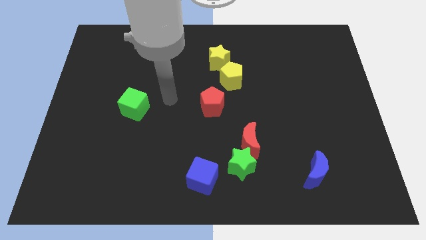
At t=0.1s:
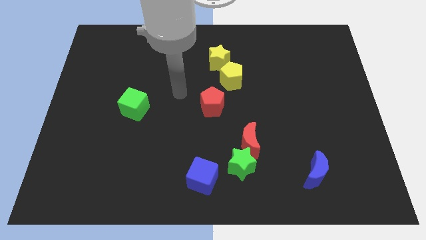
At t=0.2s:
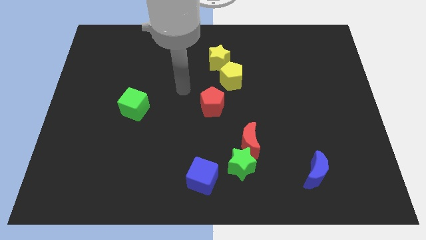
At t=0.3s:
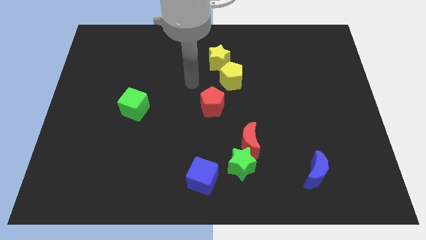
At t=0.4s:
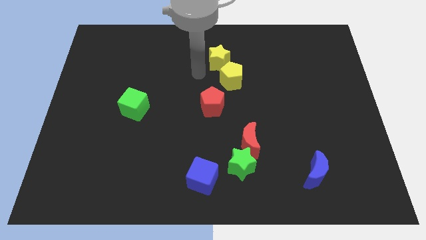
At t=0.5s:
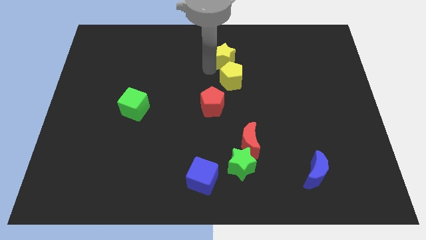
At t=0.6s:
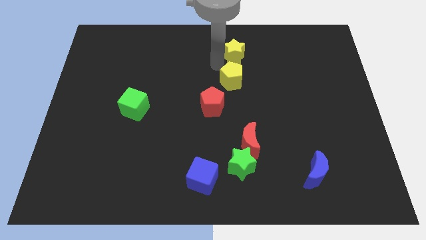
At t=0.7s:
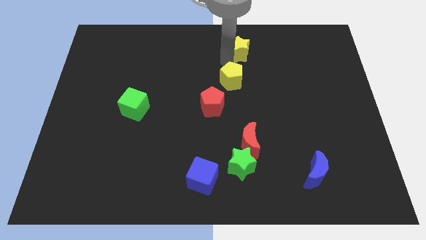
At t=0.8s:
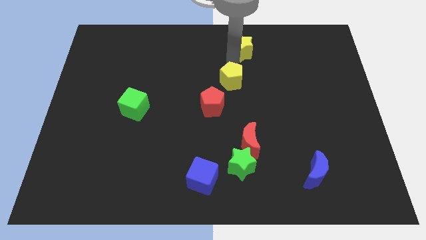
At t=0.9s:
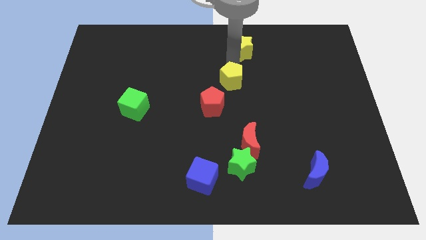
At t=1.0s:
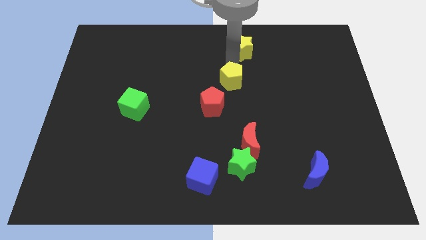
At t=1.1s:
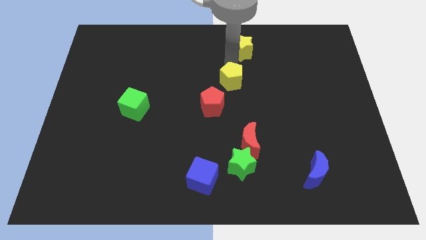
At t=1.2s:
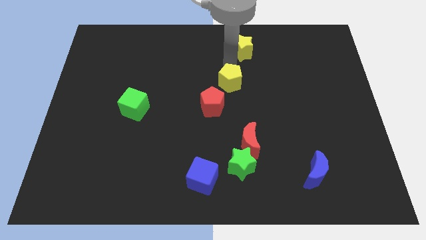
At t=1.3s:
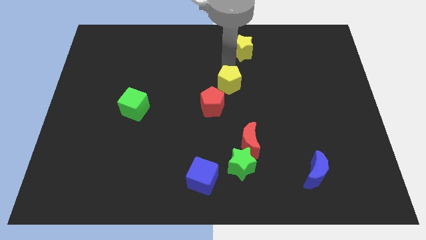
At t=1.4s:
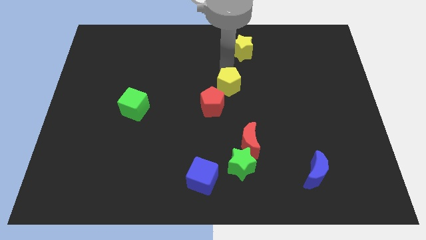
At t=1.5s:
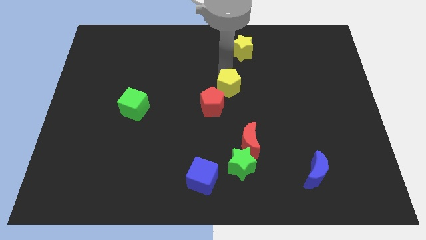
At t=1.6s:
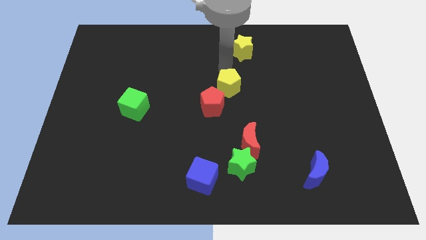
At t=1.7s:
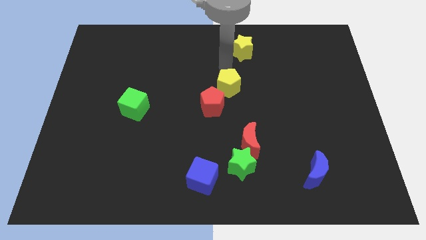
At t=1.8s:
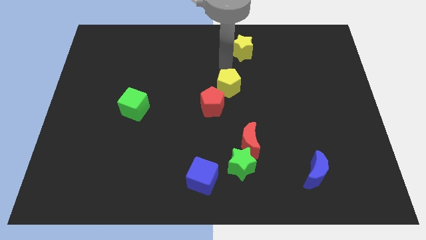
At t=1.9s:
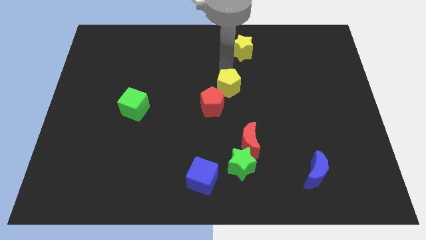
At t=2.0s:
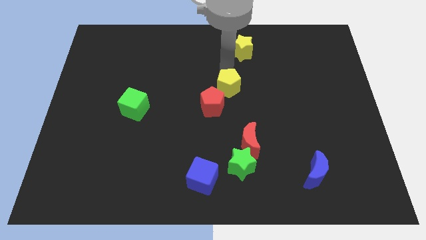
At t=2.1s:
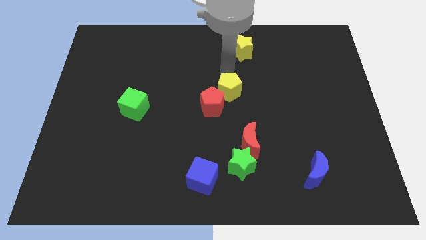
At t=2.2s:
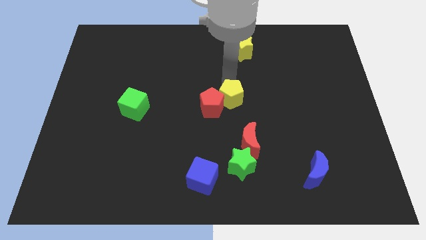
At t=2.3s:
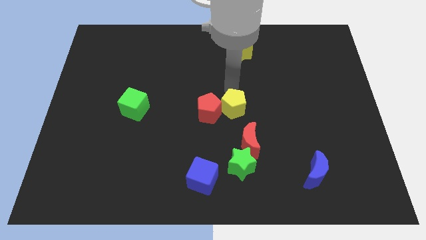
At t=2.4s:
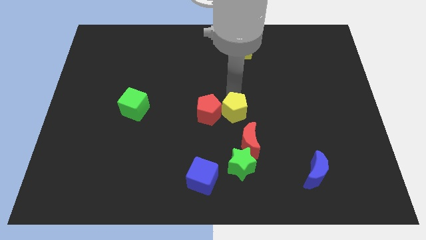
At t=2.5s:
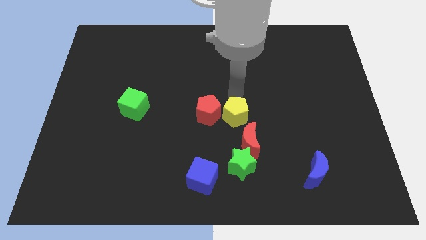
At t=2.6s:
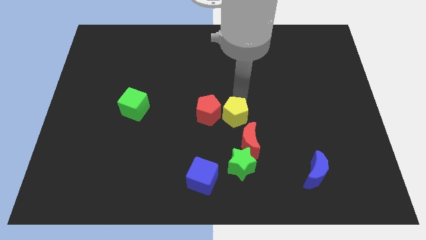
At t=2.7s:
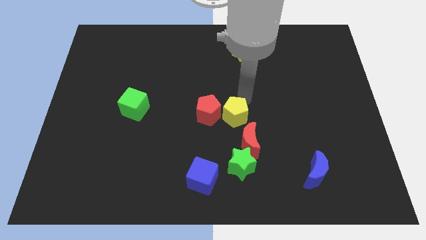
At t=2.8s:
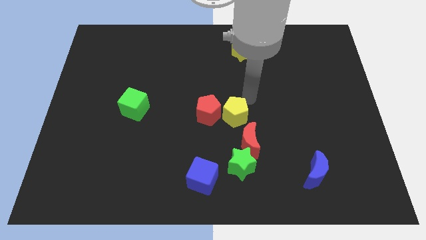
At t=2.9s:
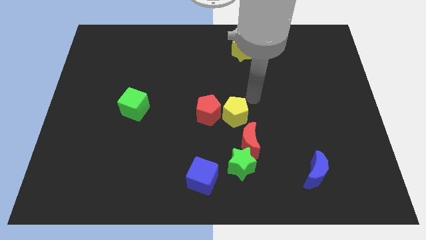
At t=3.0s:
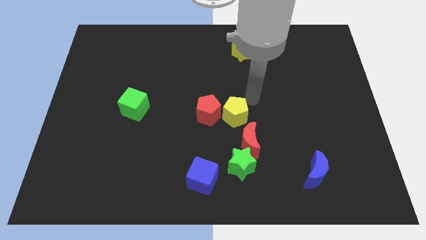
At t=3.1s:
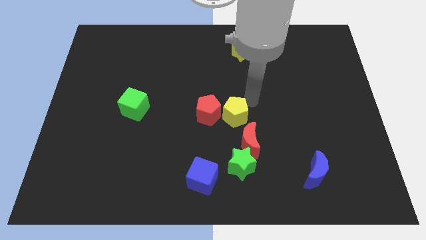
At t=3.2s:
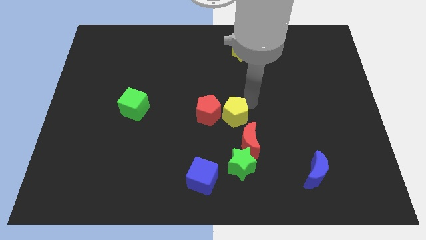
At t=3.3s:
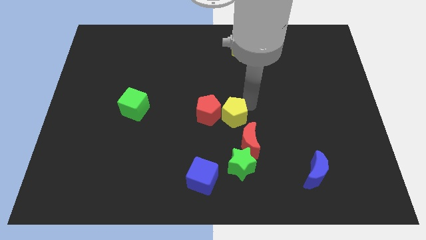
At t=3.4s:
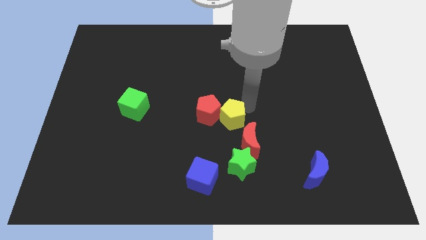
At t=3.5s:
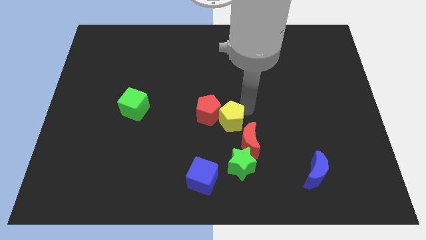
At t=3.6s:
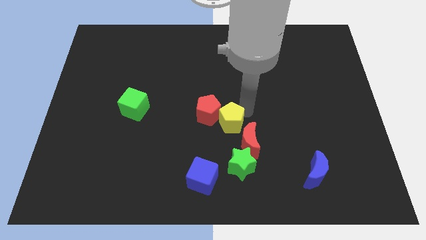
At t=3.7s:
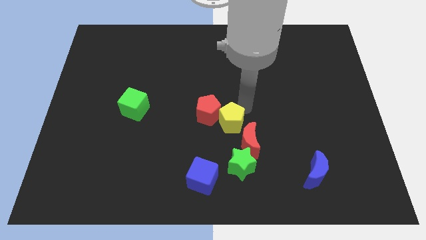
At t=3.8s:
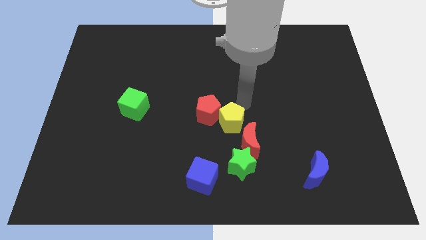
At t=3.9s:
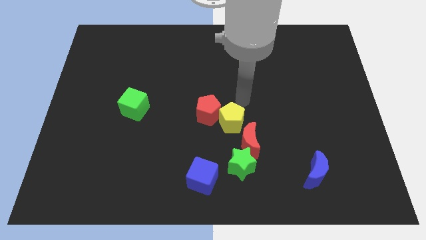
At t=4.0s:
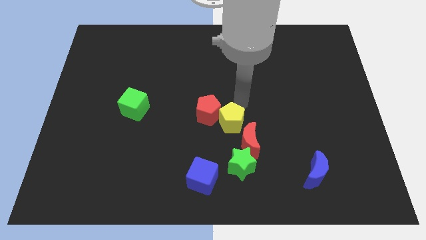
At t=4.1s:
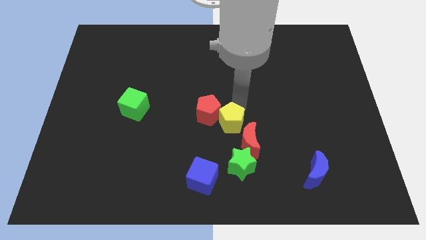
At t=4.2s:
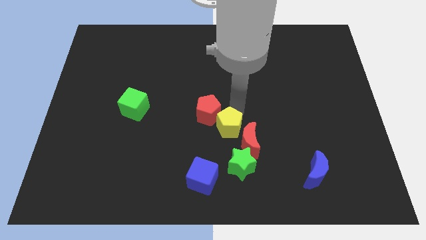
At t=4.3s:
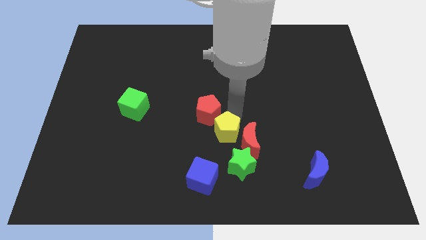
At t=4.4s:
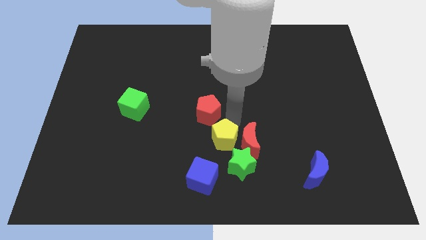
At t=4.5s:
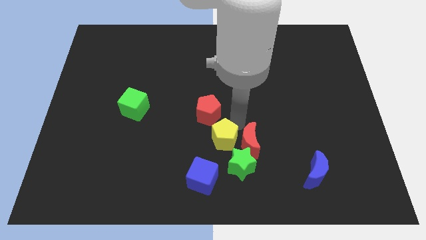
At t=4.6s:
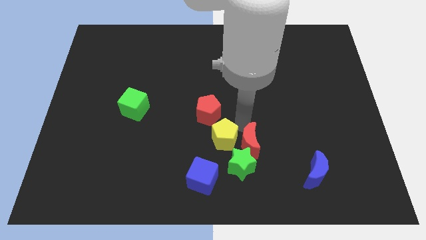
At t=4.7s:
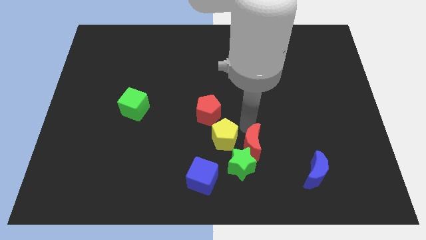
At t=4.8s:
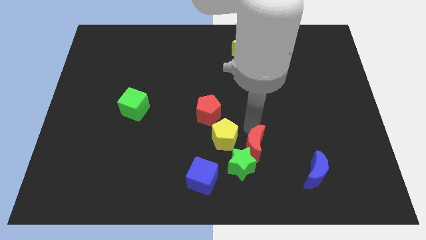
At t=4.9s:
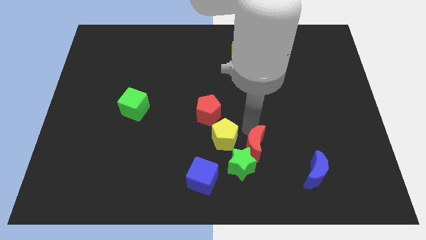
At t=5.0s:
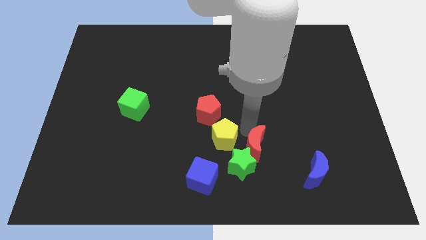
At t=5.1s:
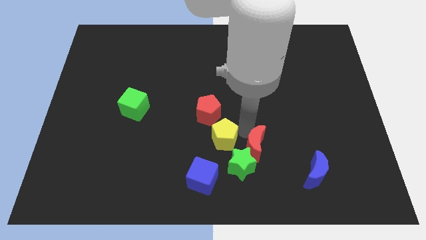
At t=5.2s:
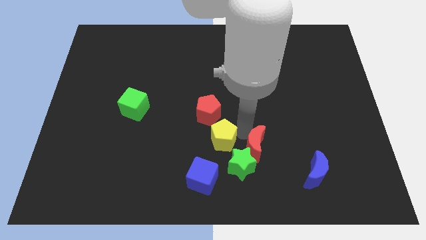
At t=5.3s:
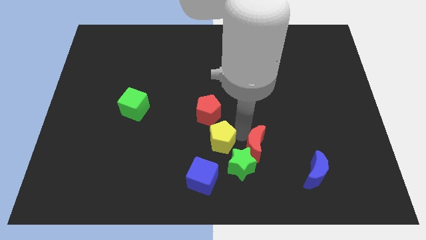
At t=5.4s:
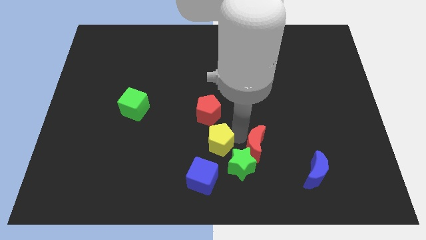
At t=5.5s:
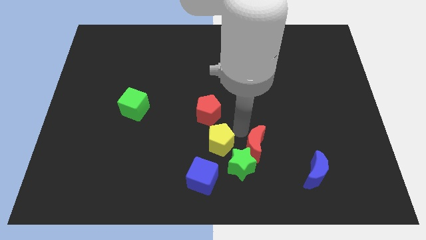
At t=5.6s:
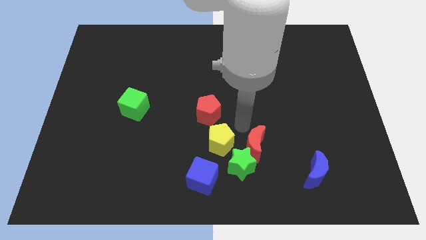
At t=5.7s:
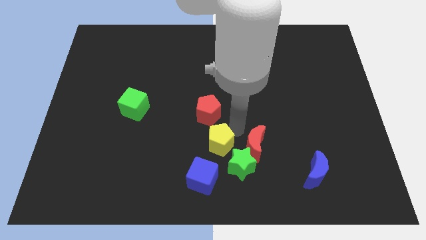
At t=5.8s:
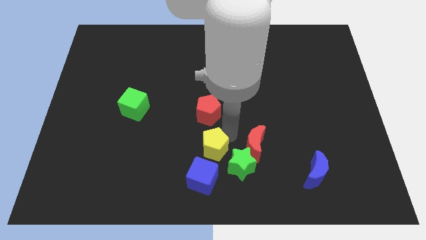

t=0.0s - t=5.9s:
put the yellow pentagon left of the green star

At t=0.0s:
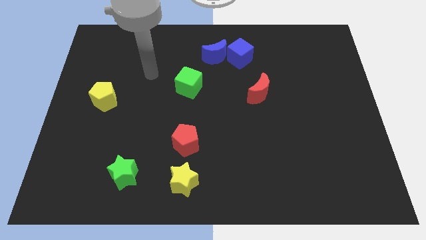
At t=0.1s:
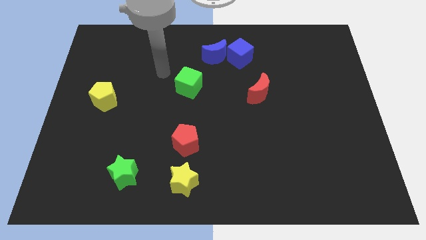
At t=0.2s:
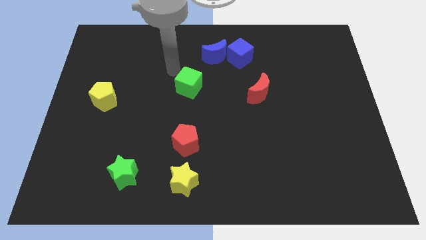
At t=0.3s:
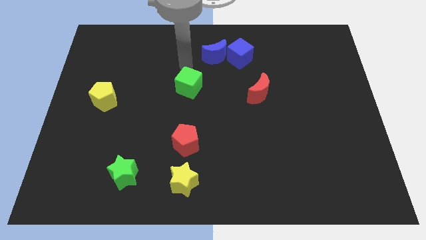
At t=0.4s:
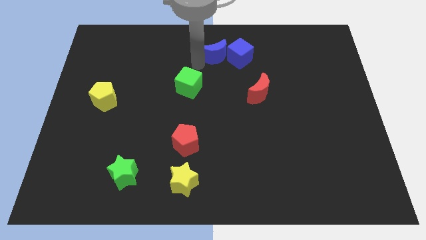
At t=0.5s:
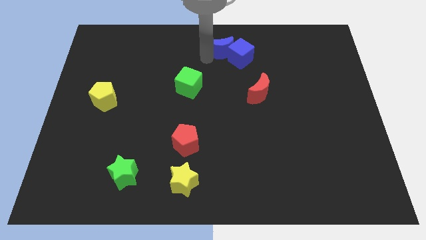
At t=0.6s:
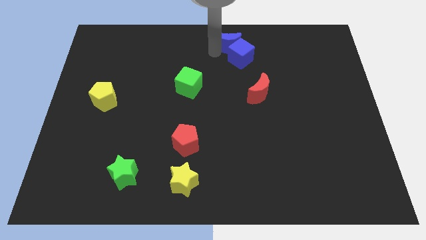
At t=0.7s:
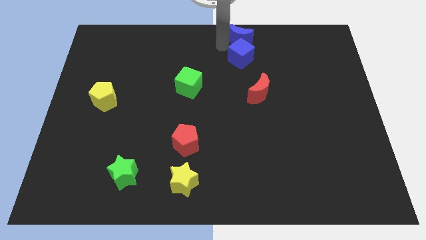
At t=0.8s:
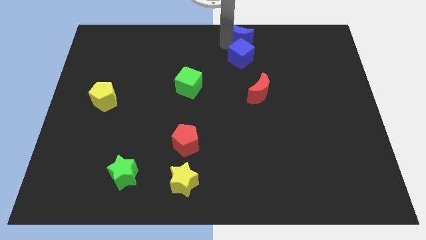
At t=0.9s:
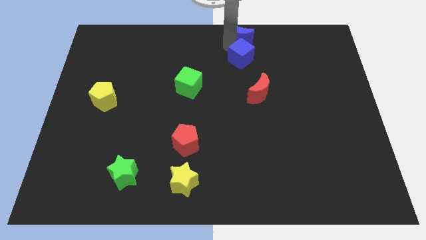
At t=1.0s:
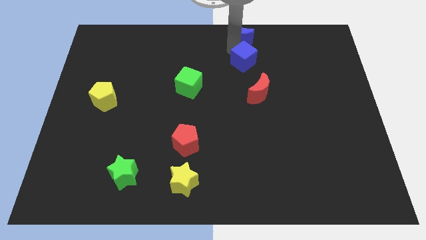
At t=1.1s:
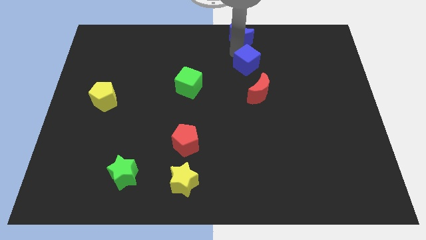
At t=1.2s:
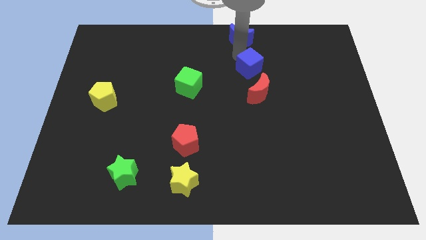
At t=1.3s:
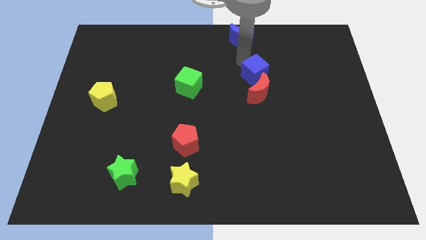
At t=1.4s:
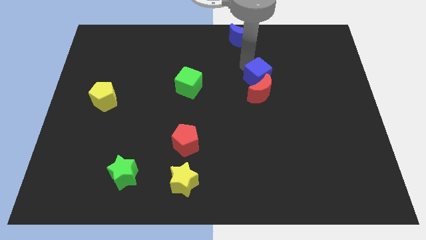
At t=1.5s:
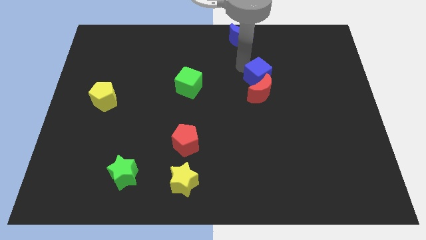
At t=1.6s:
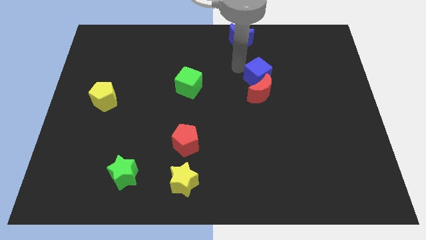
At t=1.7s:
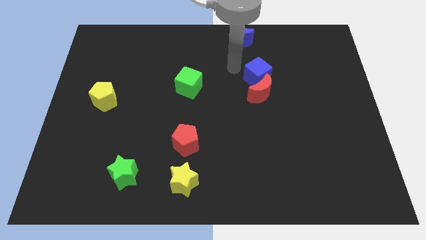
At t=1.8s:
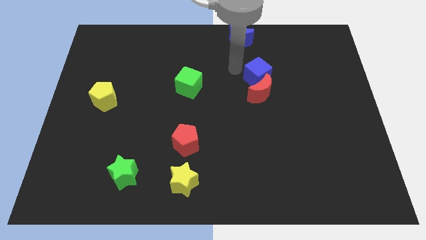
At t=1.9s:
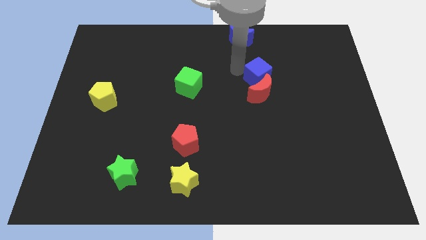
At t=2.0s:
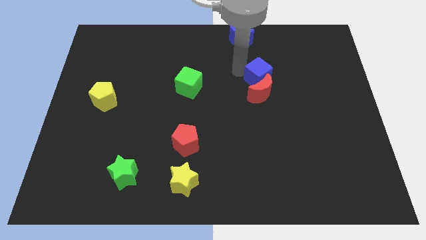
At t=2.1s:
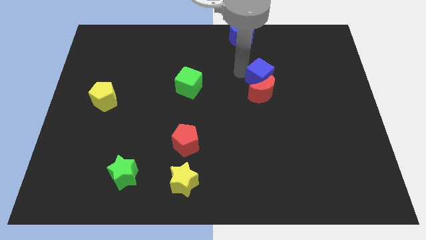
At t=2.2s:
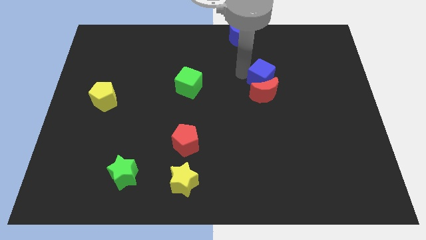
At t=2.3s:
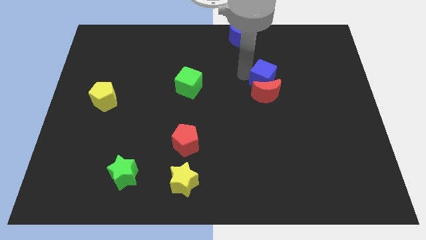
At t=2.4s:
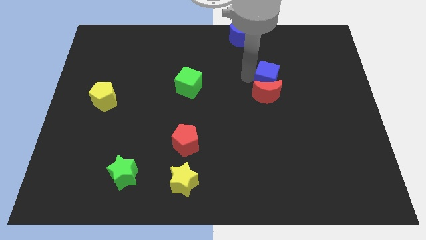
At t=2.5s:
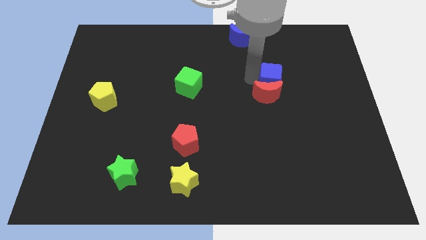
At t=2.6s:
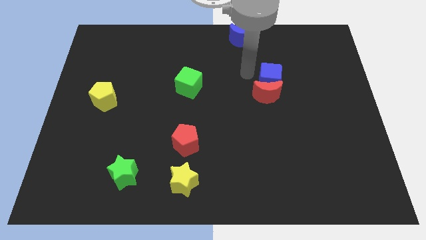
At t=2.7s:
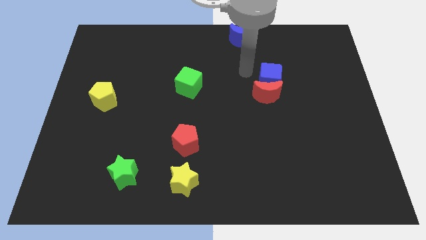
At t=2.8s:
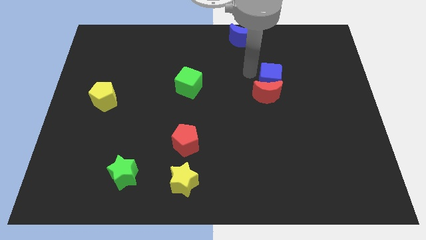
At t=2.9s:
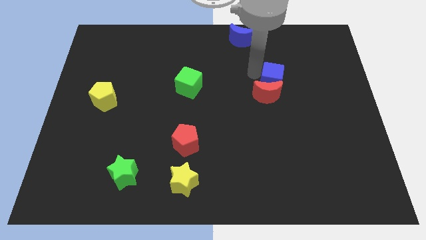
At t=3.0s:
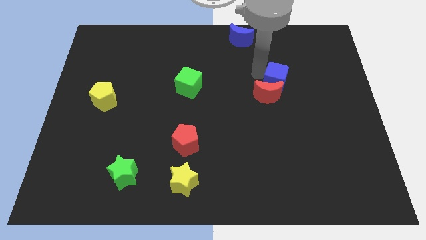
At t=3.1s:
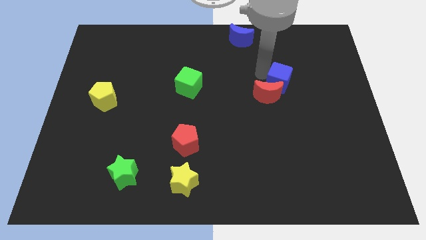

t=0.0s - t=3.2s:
slide the blue cube to the right side of the red moon
